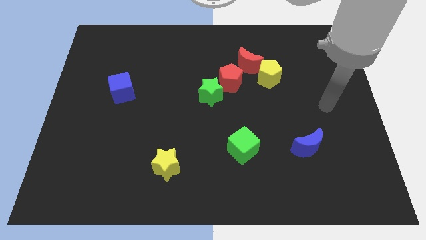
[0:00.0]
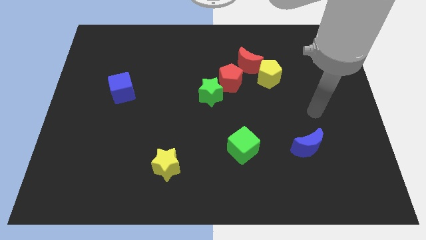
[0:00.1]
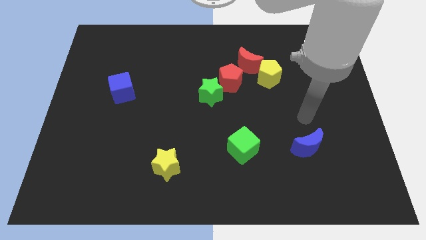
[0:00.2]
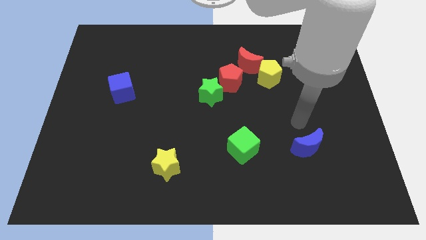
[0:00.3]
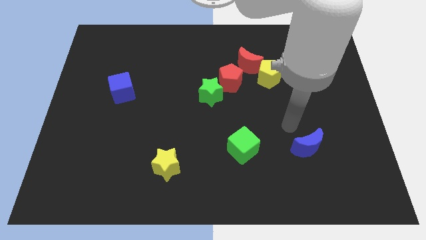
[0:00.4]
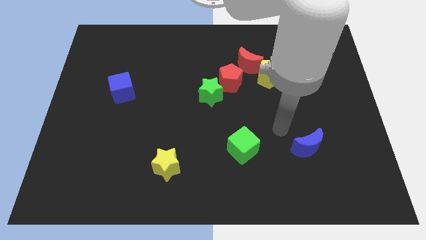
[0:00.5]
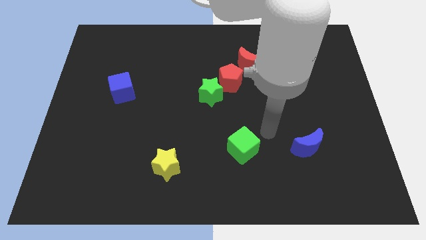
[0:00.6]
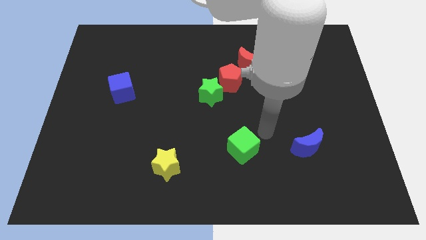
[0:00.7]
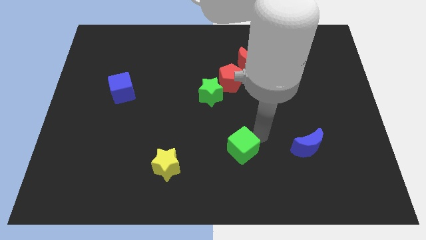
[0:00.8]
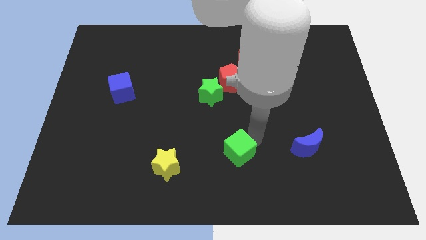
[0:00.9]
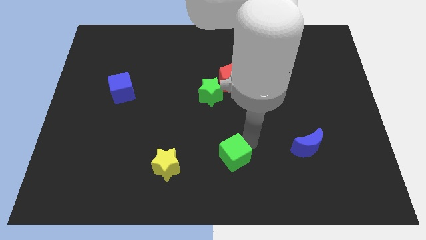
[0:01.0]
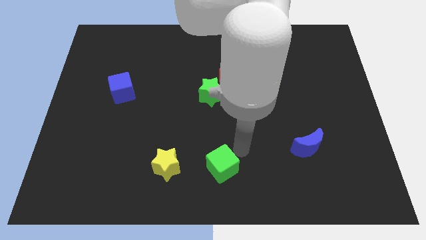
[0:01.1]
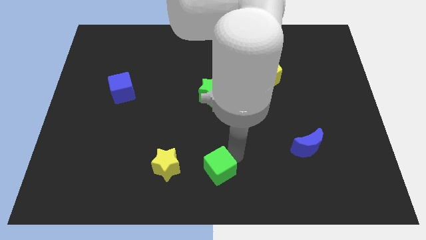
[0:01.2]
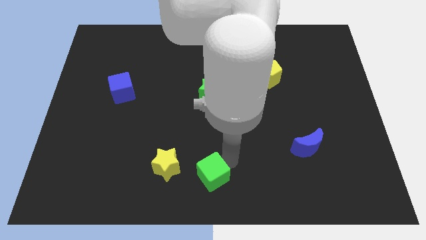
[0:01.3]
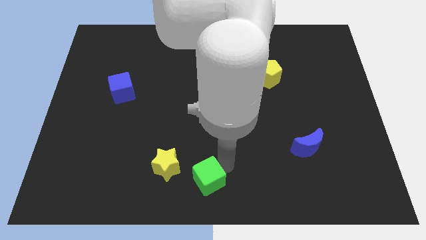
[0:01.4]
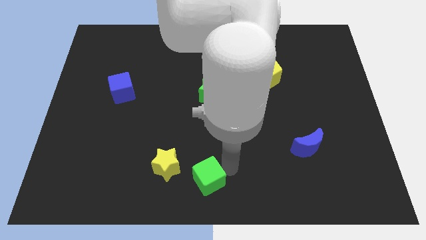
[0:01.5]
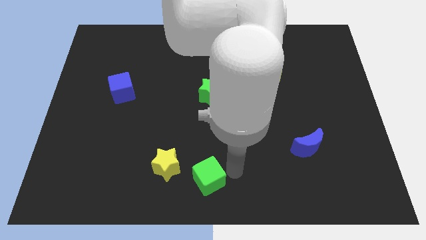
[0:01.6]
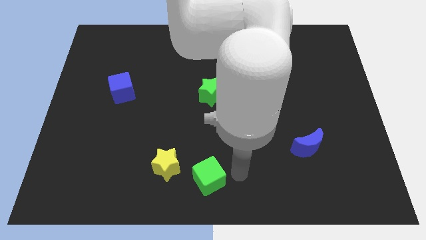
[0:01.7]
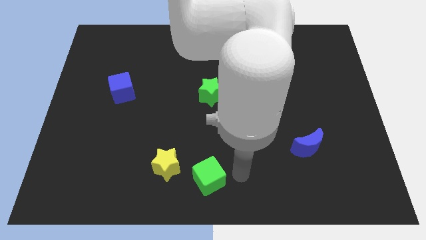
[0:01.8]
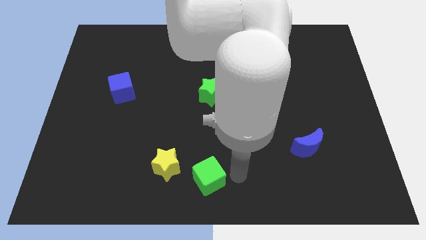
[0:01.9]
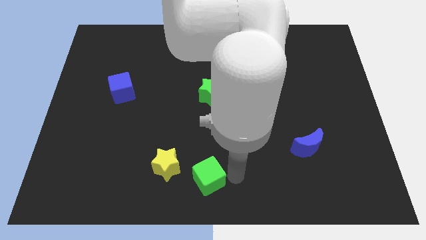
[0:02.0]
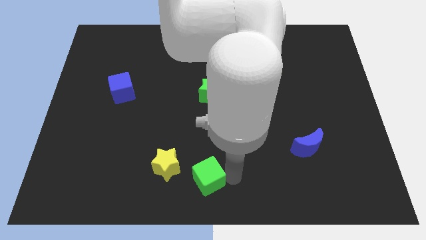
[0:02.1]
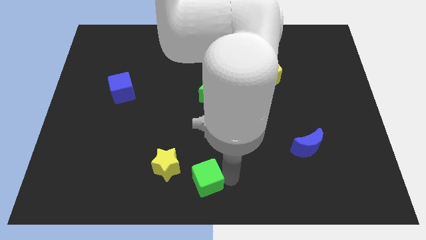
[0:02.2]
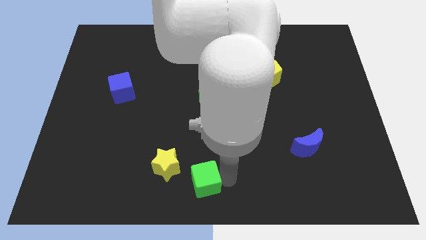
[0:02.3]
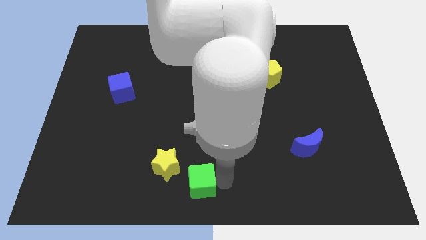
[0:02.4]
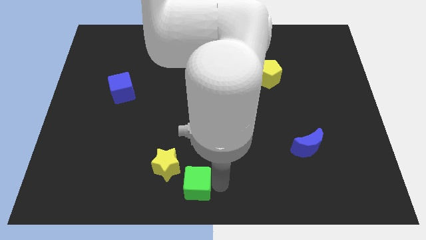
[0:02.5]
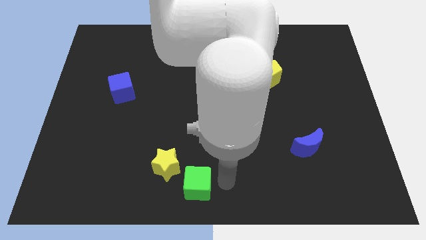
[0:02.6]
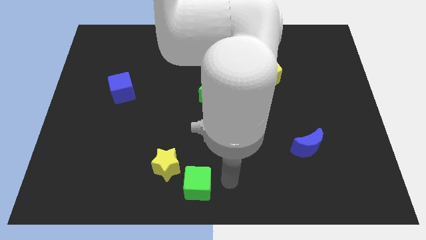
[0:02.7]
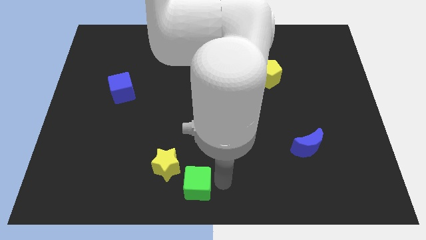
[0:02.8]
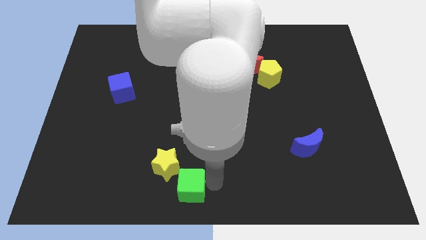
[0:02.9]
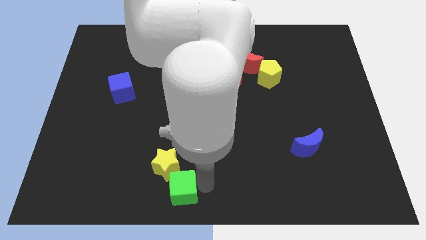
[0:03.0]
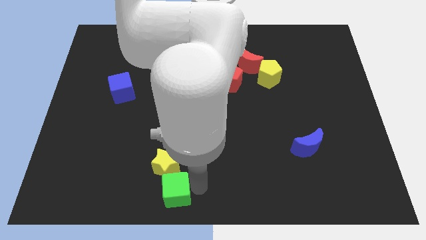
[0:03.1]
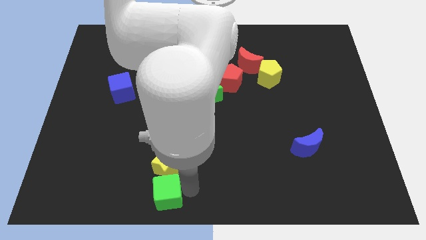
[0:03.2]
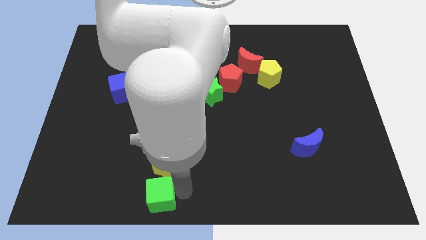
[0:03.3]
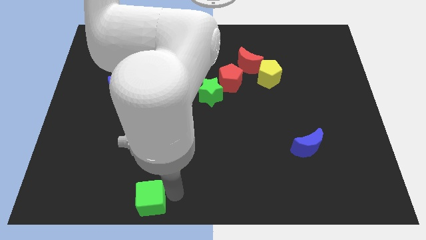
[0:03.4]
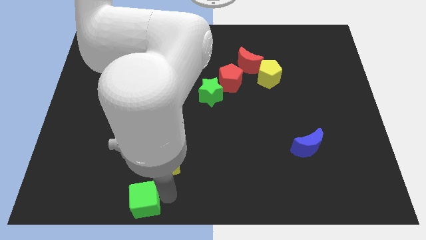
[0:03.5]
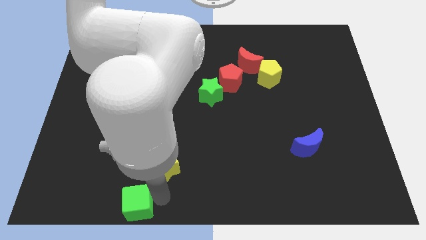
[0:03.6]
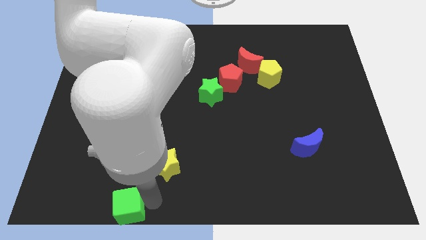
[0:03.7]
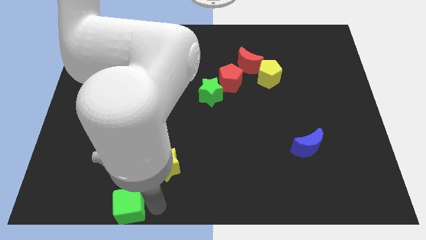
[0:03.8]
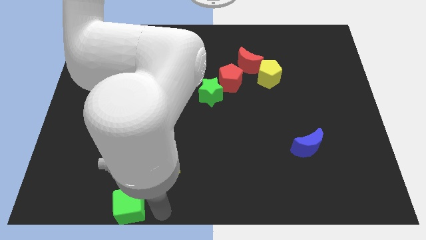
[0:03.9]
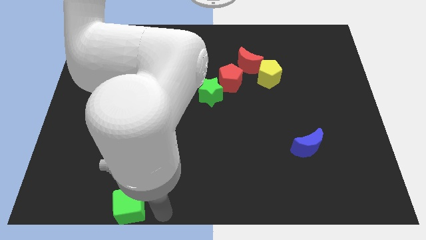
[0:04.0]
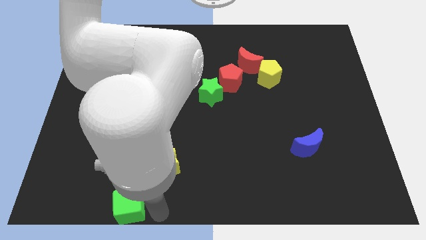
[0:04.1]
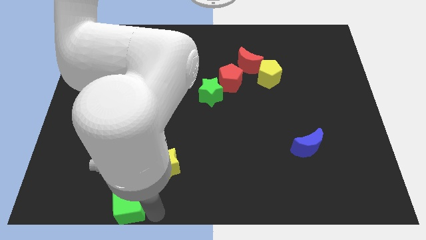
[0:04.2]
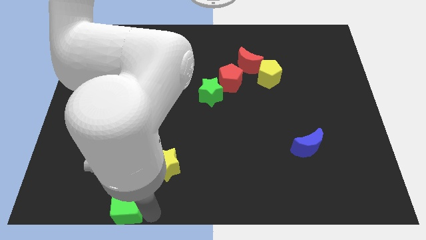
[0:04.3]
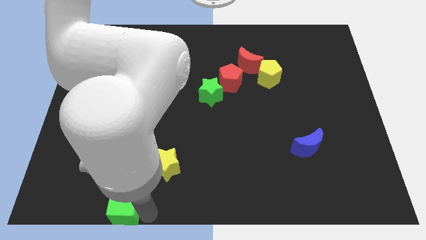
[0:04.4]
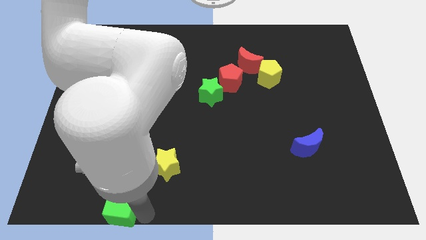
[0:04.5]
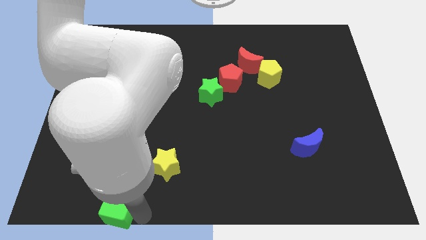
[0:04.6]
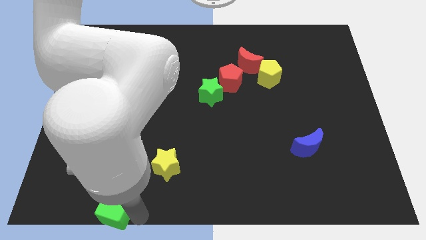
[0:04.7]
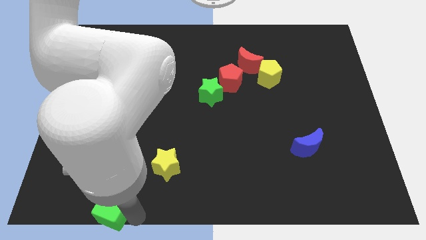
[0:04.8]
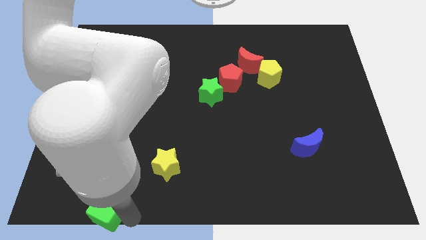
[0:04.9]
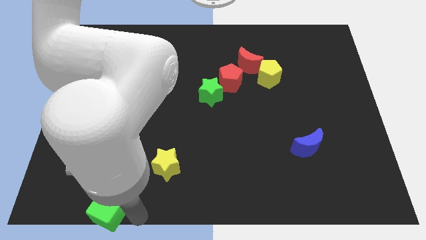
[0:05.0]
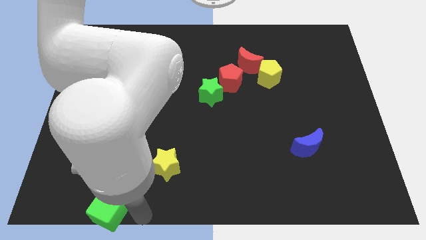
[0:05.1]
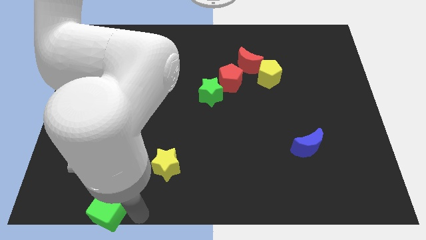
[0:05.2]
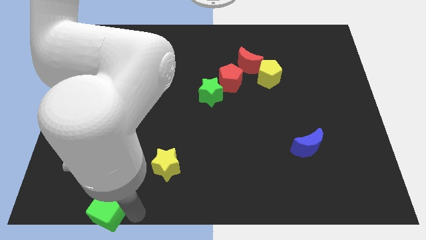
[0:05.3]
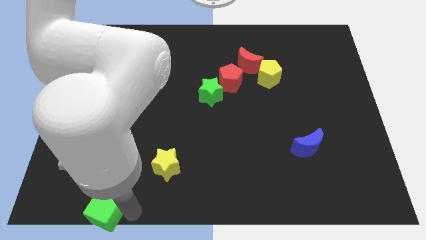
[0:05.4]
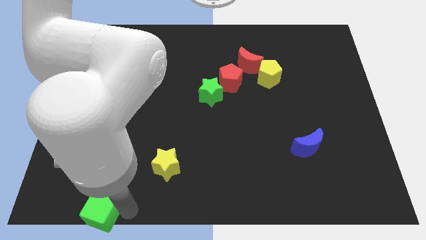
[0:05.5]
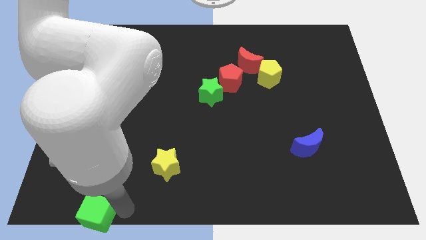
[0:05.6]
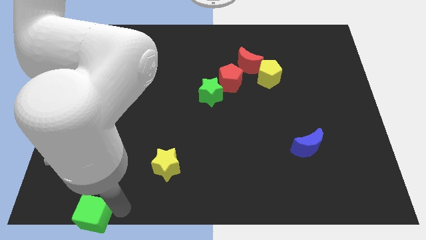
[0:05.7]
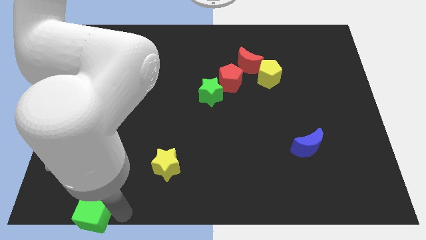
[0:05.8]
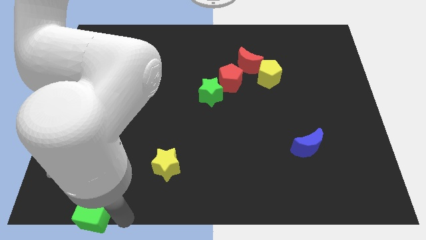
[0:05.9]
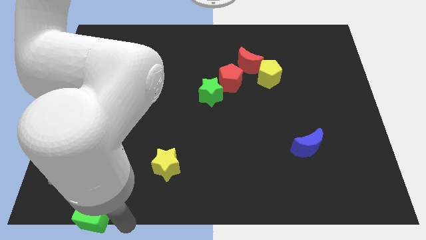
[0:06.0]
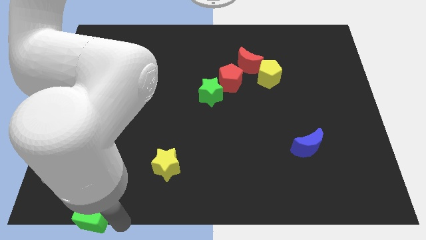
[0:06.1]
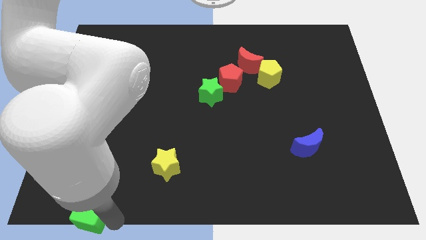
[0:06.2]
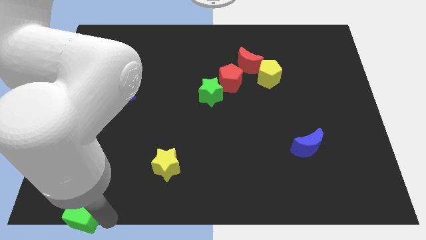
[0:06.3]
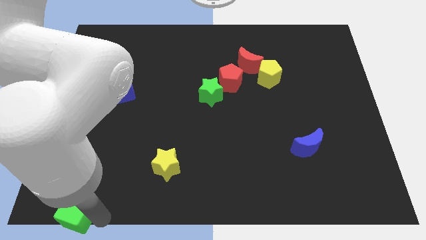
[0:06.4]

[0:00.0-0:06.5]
push the green cube to the bottom left
